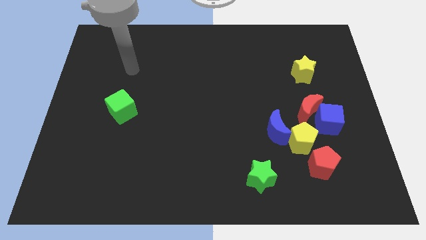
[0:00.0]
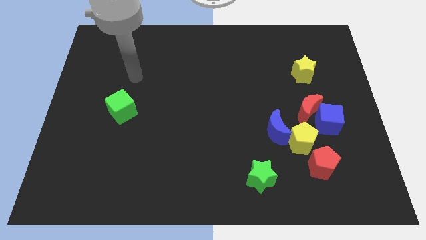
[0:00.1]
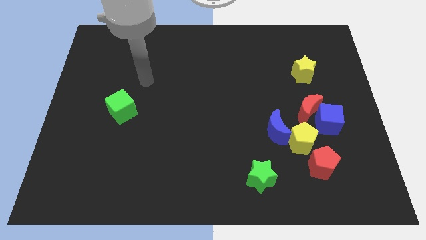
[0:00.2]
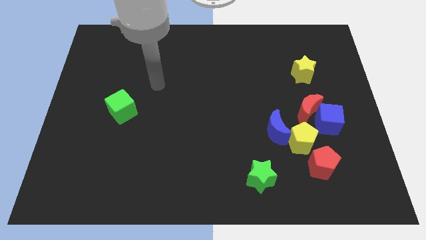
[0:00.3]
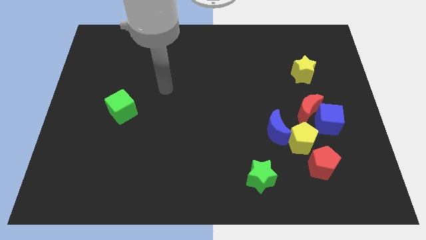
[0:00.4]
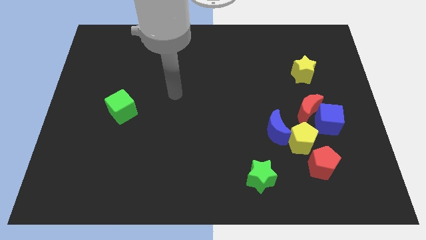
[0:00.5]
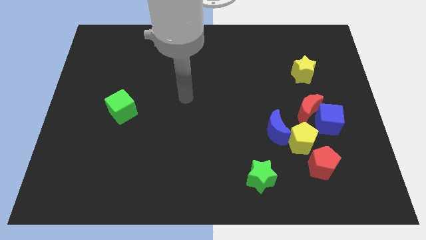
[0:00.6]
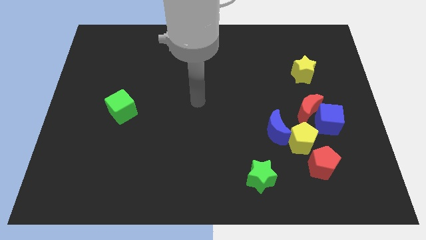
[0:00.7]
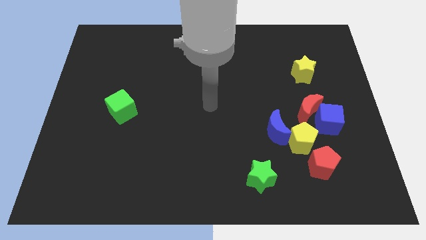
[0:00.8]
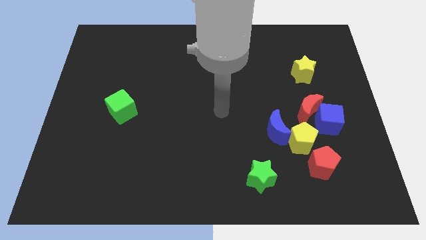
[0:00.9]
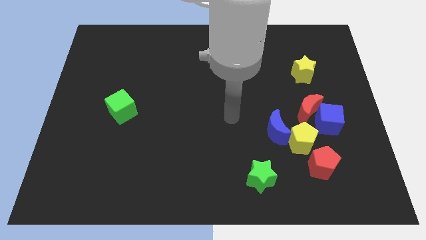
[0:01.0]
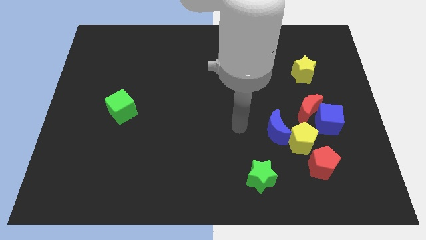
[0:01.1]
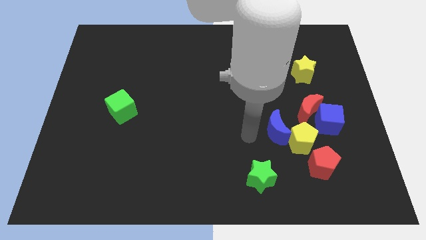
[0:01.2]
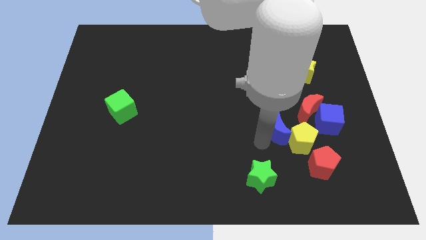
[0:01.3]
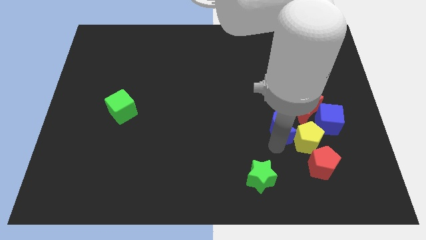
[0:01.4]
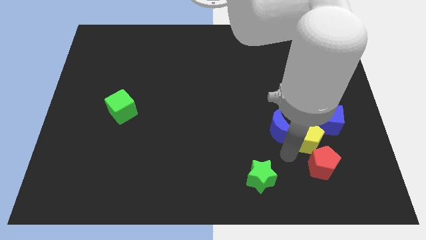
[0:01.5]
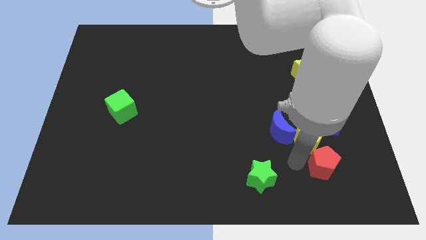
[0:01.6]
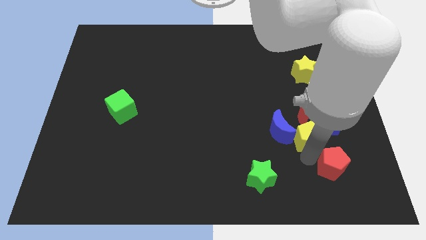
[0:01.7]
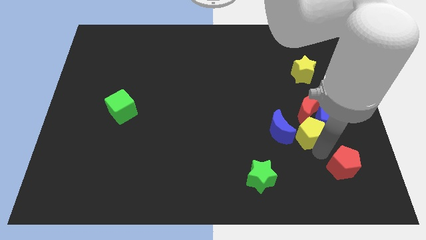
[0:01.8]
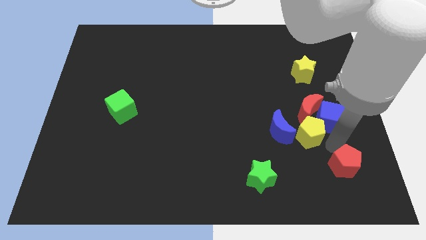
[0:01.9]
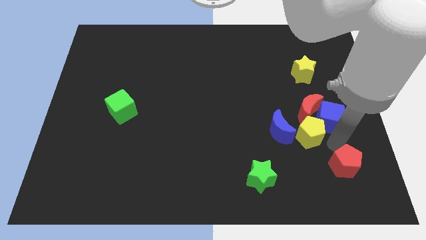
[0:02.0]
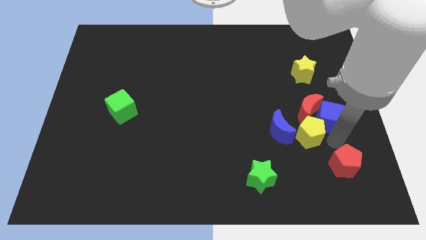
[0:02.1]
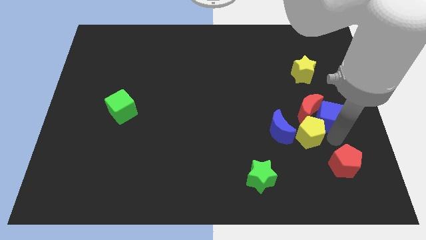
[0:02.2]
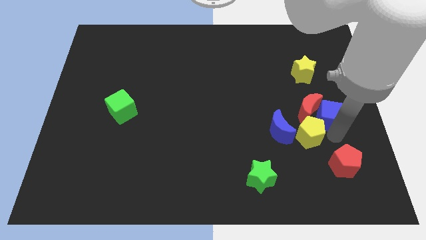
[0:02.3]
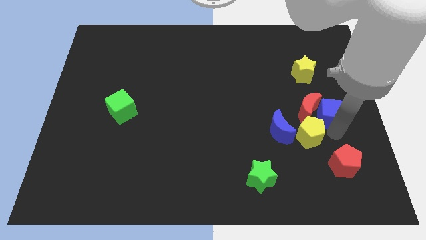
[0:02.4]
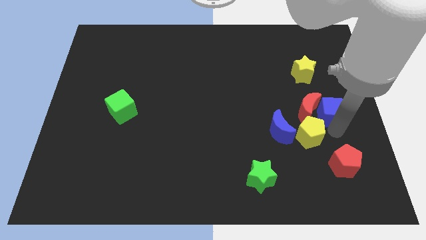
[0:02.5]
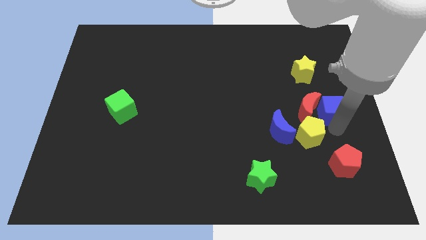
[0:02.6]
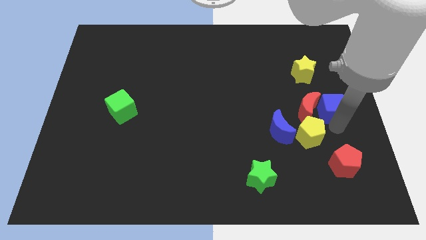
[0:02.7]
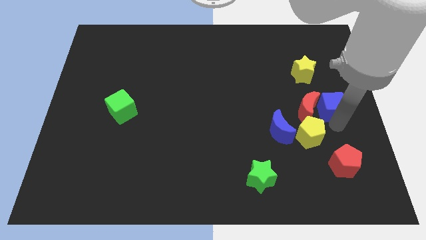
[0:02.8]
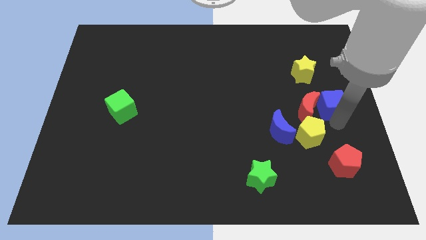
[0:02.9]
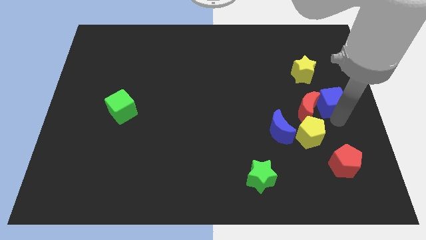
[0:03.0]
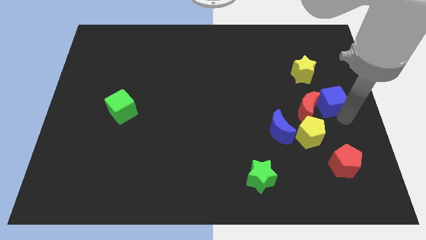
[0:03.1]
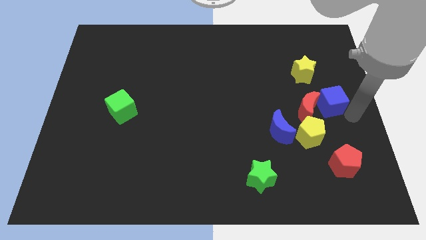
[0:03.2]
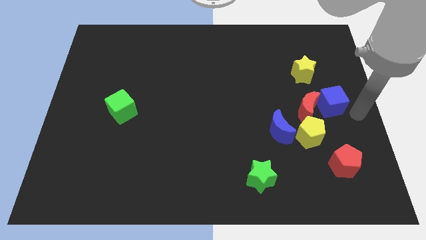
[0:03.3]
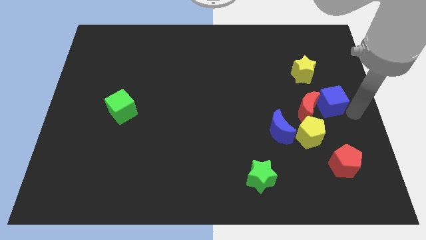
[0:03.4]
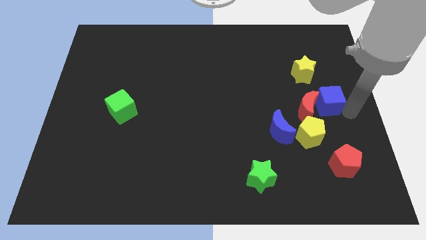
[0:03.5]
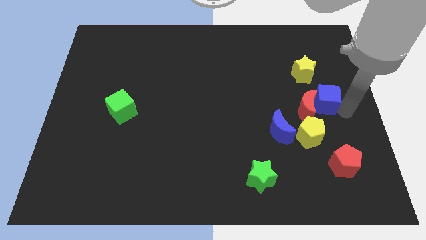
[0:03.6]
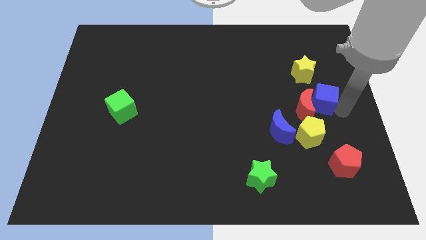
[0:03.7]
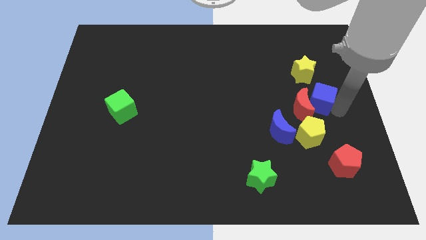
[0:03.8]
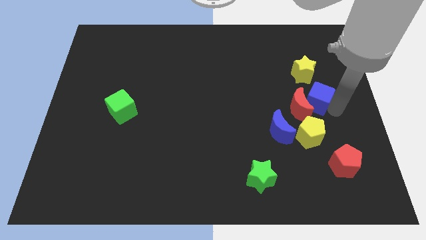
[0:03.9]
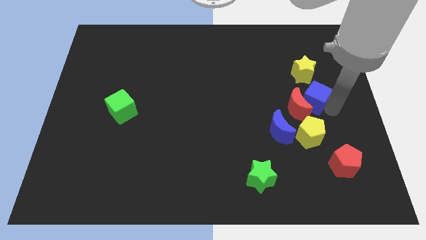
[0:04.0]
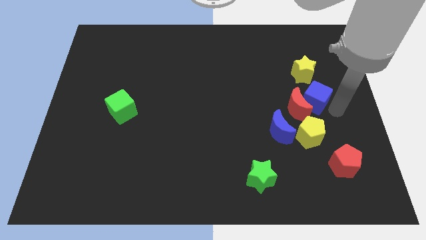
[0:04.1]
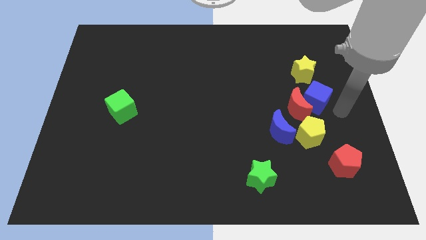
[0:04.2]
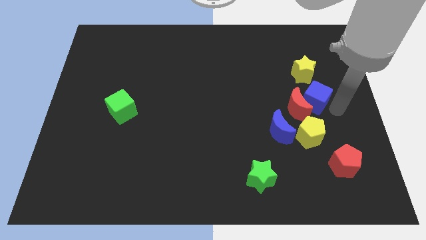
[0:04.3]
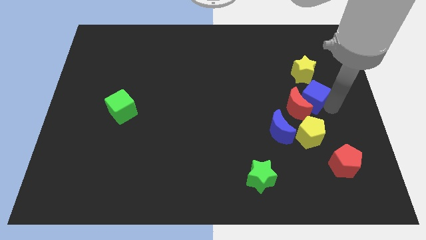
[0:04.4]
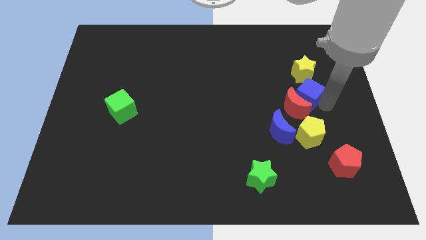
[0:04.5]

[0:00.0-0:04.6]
slightly push the blue cube upwards and left diagonally

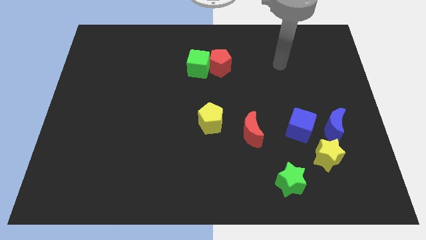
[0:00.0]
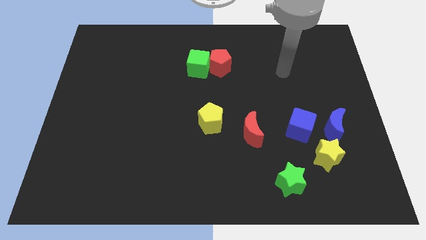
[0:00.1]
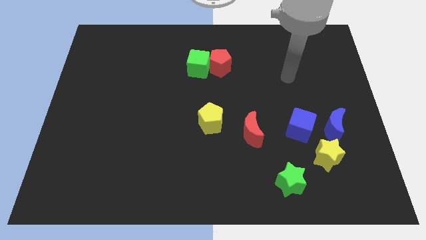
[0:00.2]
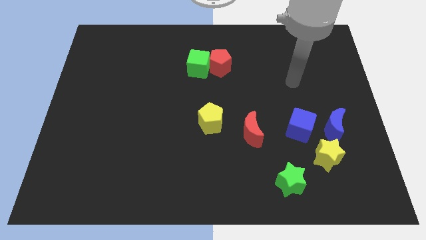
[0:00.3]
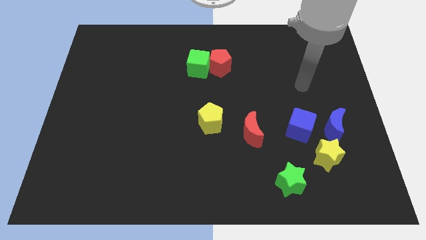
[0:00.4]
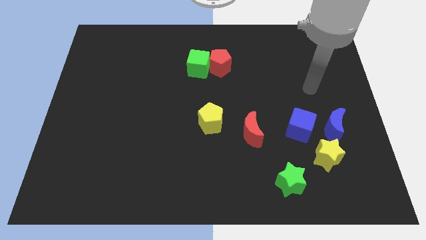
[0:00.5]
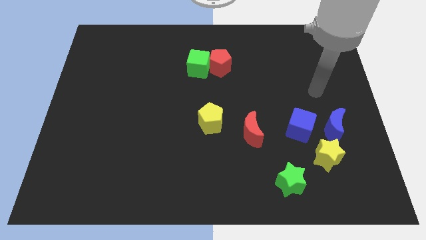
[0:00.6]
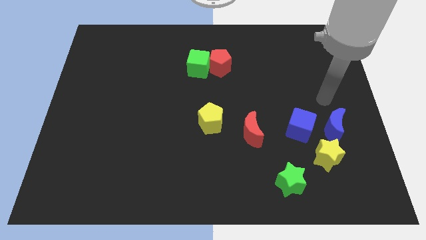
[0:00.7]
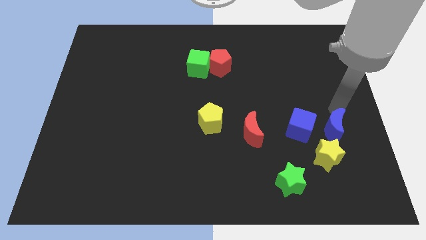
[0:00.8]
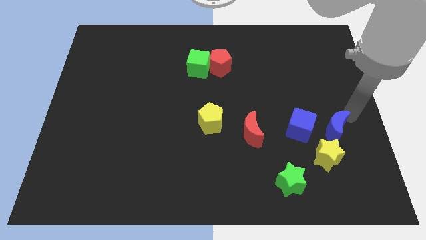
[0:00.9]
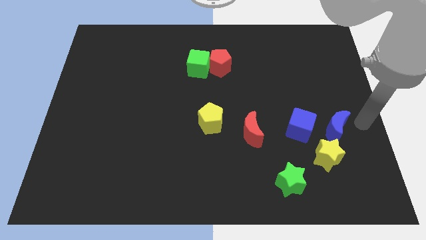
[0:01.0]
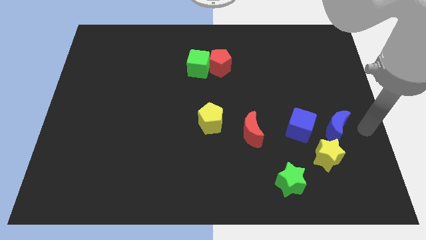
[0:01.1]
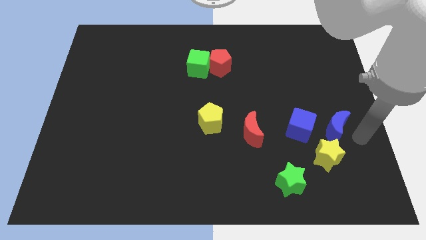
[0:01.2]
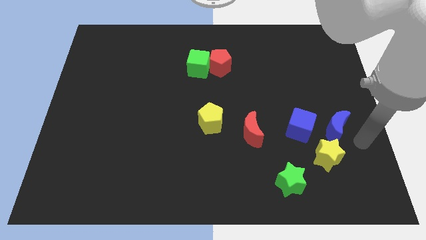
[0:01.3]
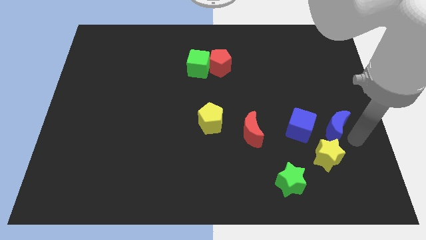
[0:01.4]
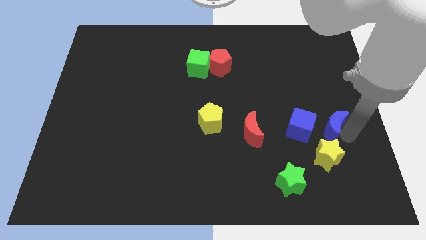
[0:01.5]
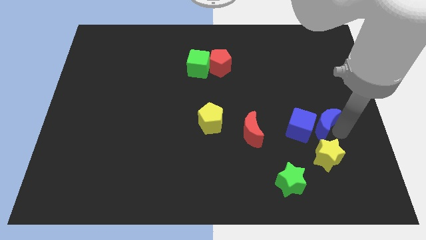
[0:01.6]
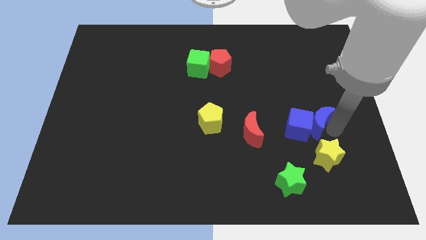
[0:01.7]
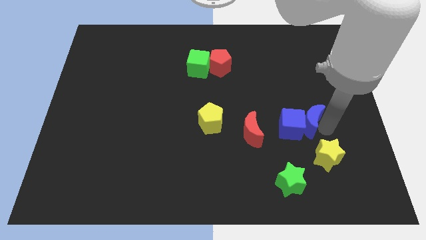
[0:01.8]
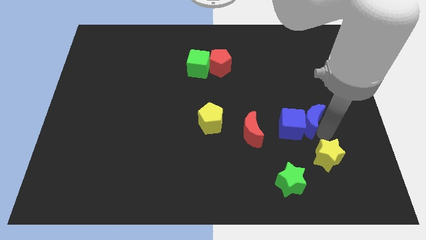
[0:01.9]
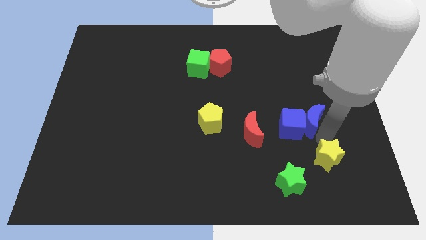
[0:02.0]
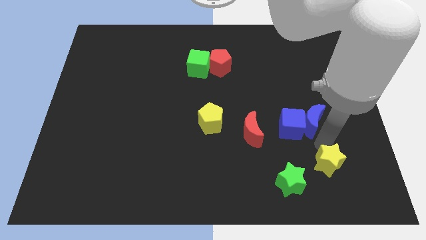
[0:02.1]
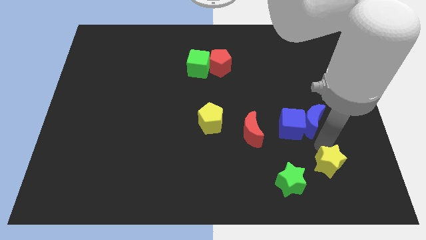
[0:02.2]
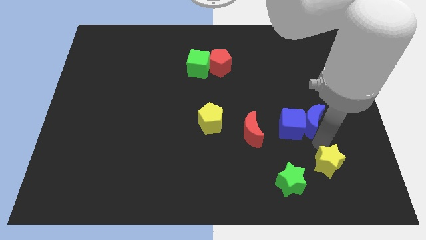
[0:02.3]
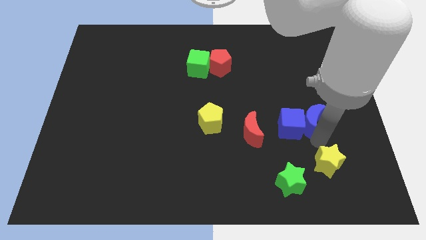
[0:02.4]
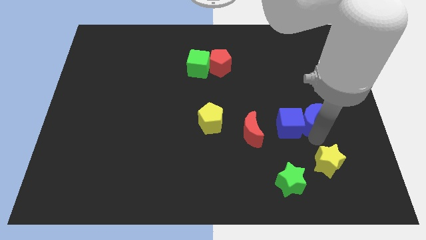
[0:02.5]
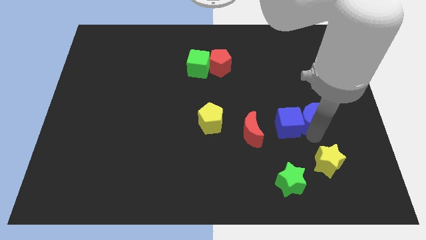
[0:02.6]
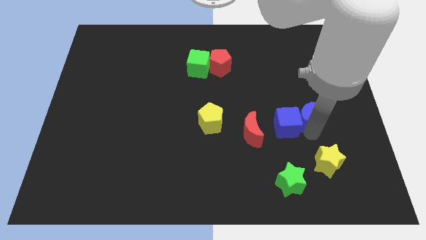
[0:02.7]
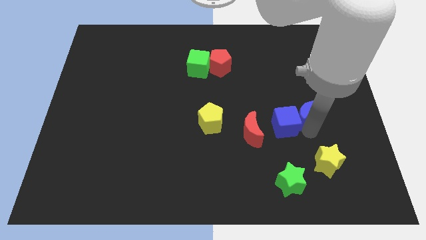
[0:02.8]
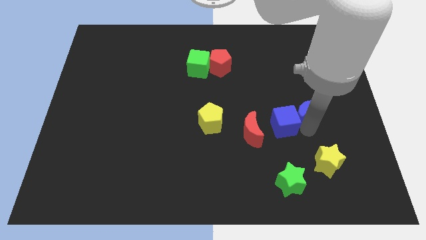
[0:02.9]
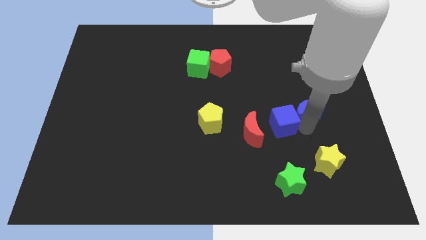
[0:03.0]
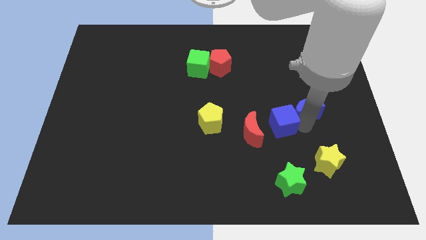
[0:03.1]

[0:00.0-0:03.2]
slide the blue moon diagonally up and to the left a little

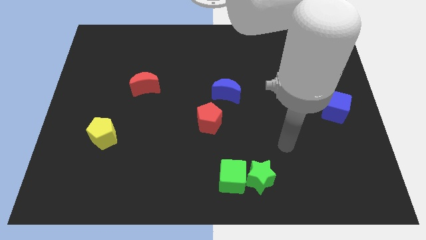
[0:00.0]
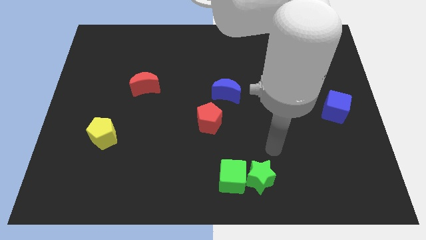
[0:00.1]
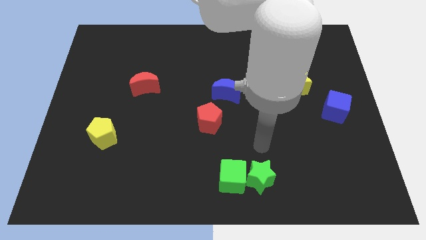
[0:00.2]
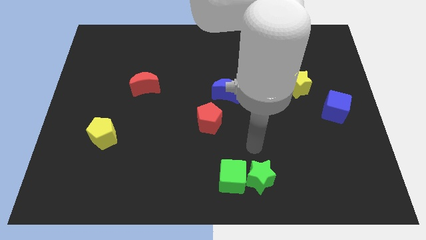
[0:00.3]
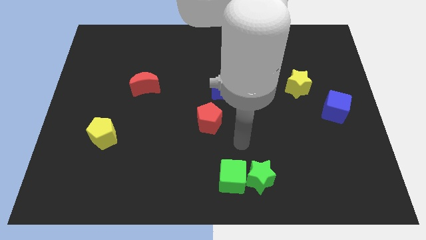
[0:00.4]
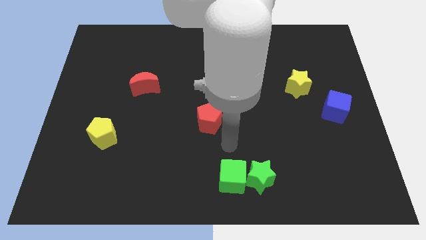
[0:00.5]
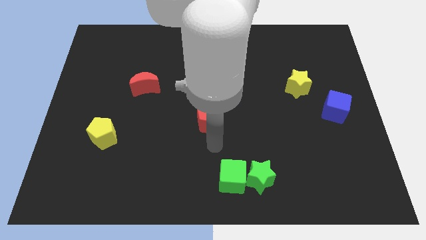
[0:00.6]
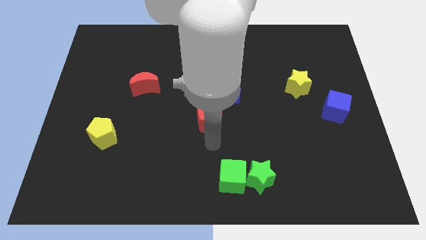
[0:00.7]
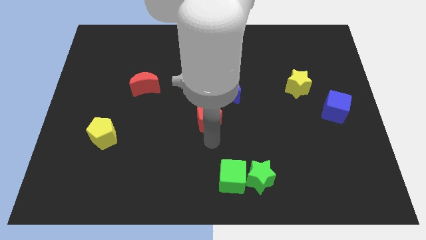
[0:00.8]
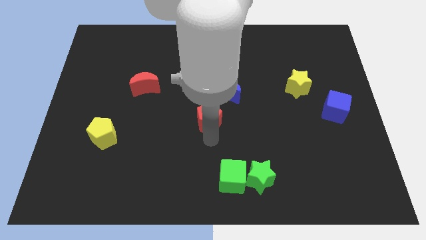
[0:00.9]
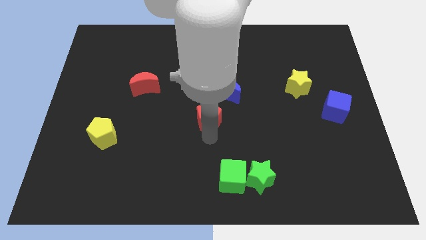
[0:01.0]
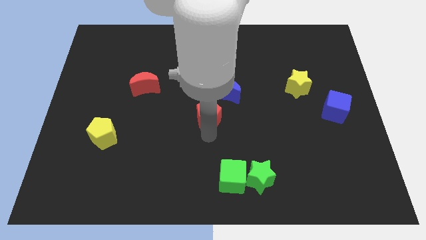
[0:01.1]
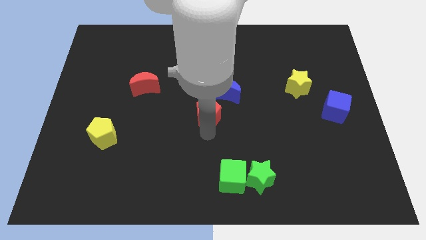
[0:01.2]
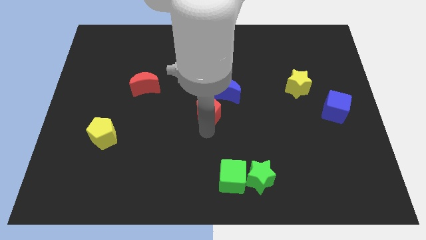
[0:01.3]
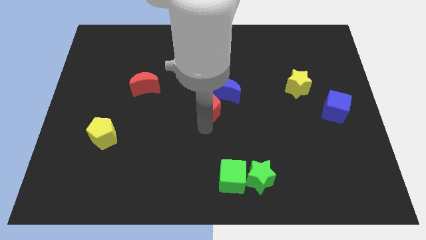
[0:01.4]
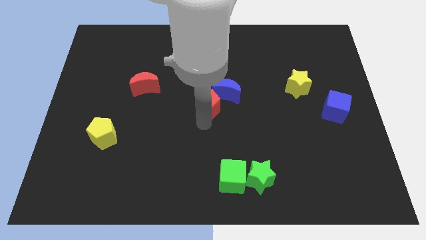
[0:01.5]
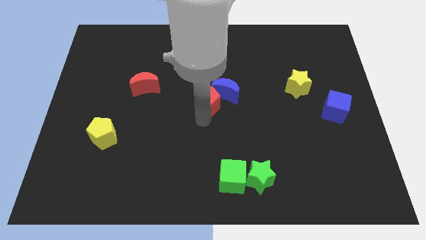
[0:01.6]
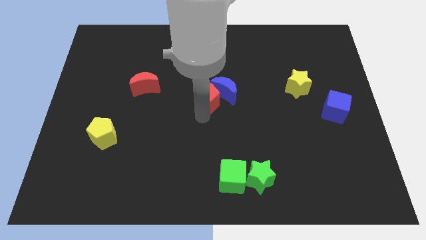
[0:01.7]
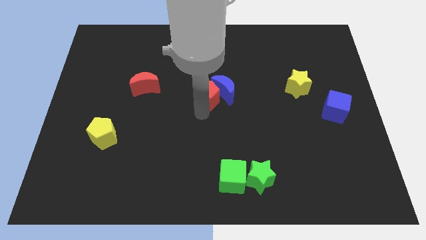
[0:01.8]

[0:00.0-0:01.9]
slide the red pentagon up slightly
